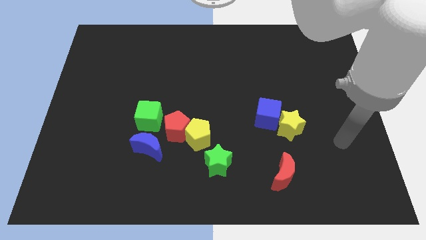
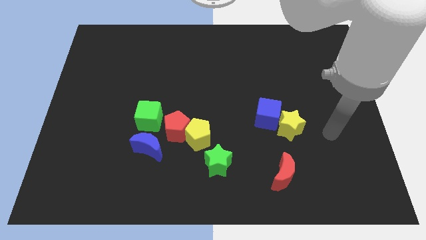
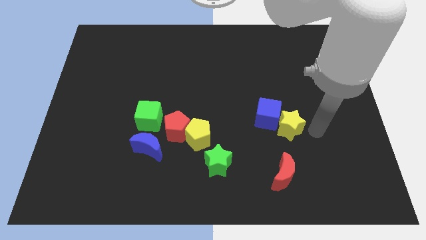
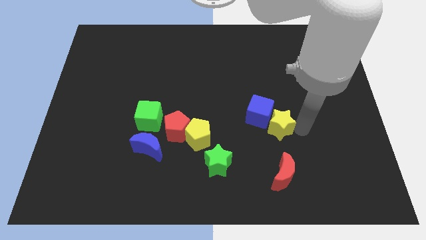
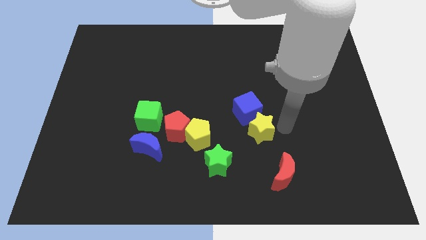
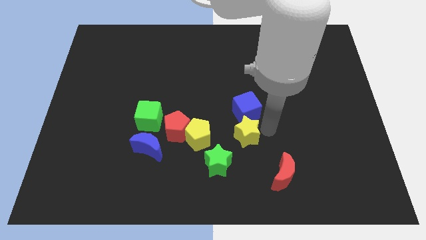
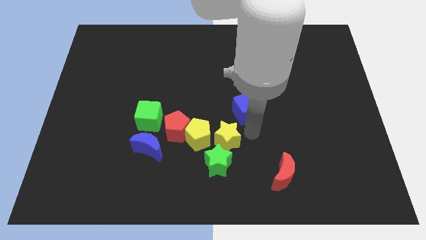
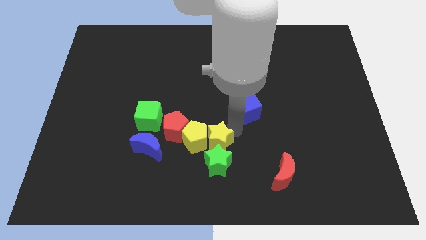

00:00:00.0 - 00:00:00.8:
separate the blue cube from the yellow star

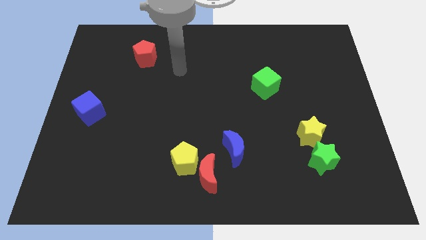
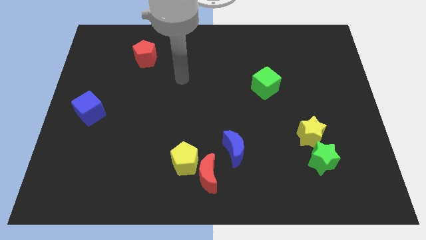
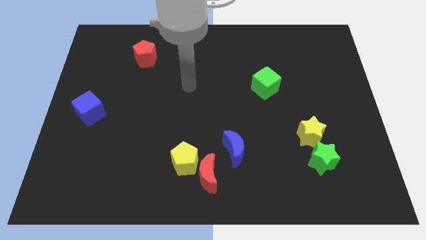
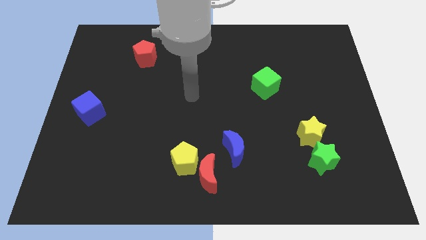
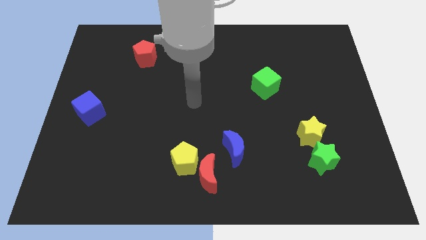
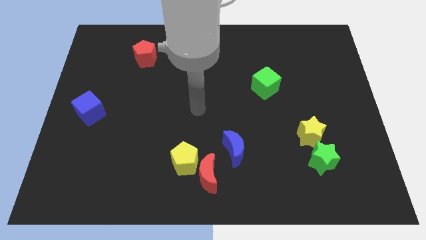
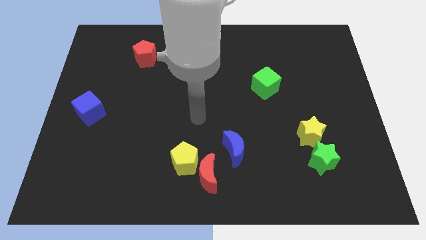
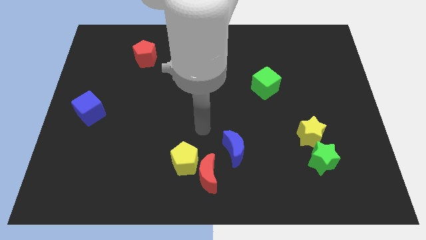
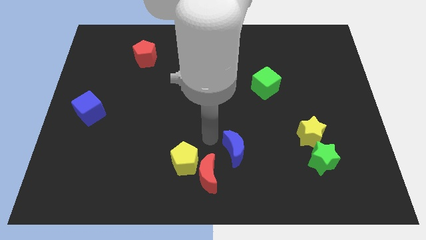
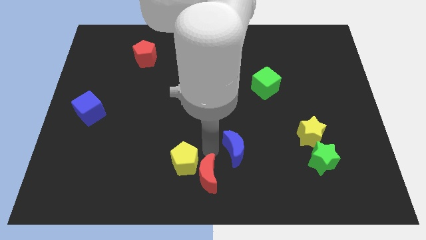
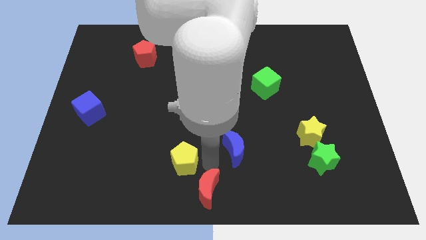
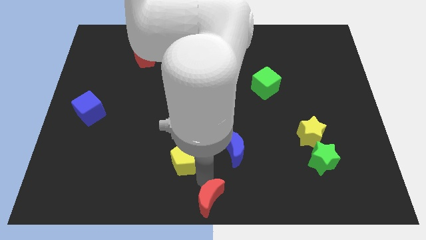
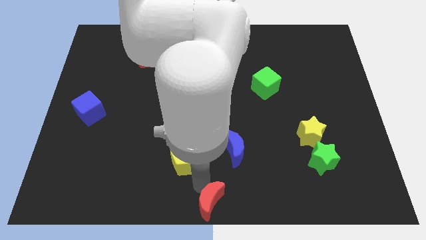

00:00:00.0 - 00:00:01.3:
separate the yellow pentagon from the red moon

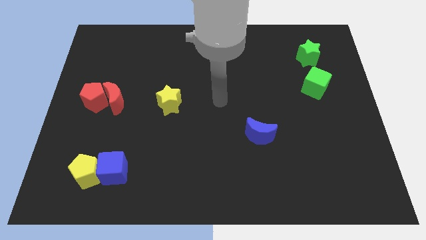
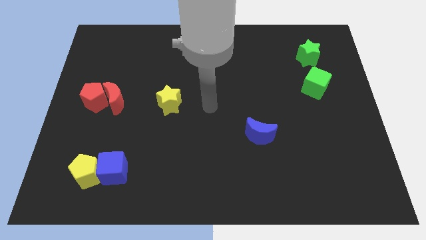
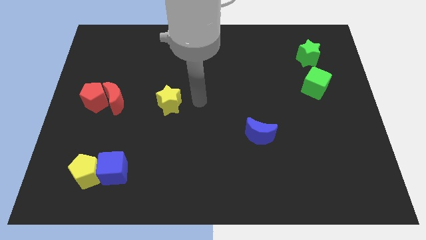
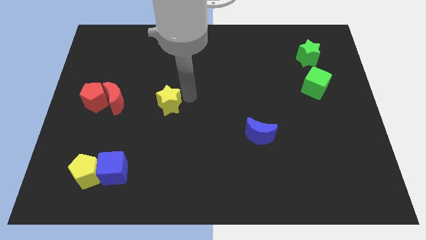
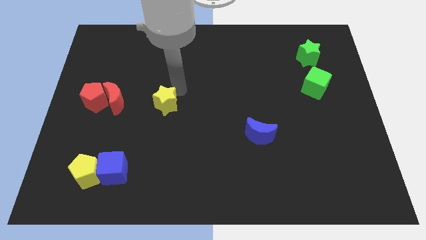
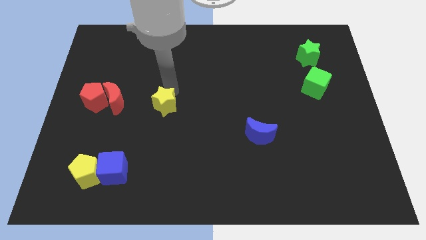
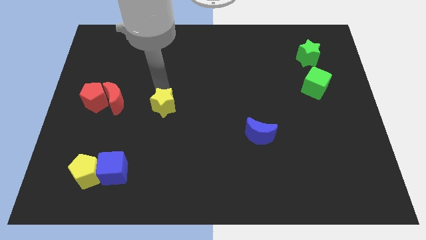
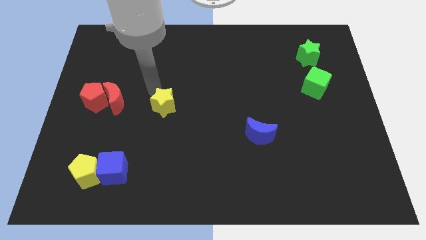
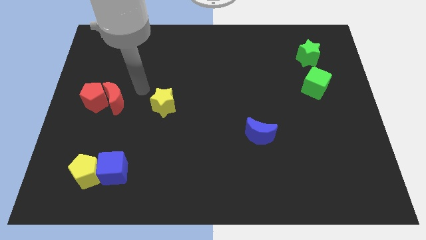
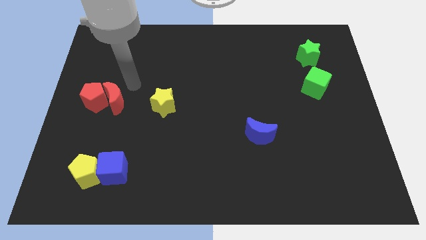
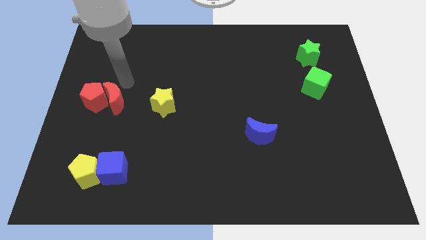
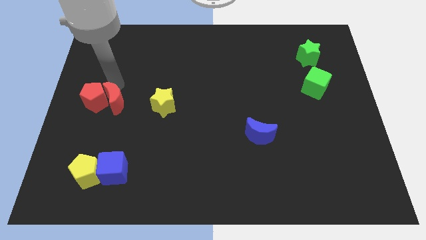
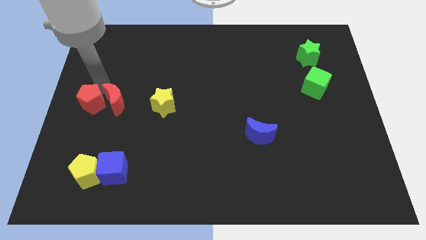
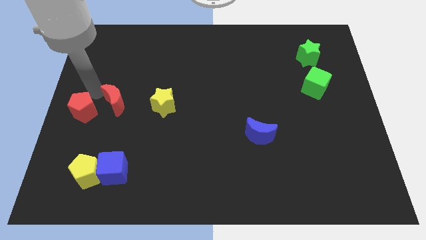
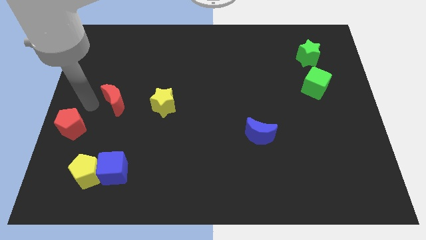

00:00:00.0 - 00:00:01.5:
pull the red moon apart from the red pentagon

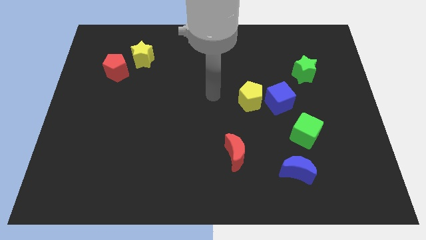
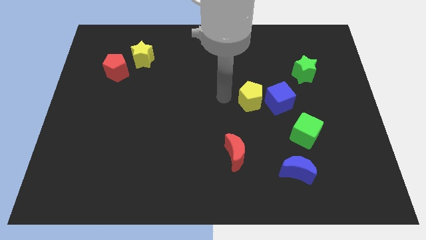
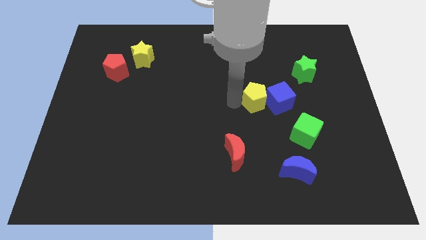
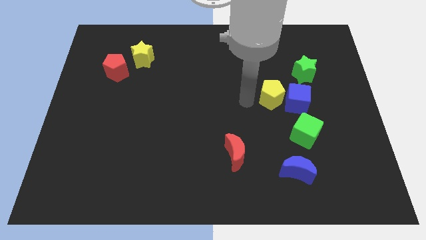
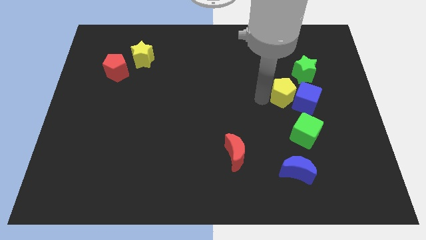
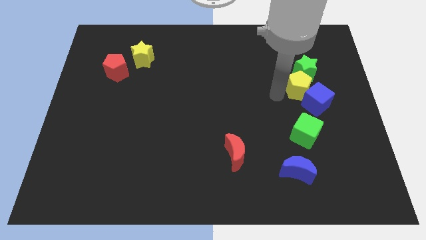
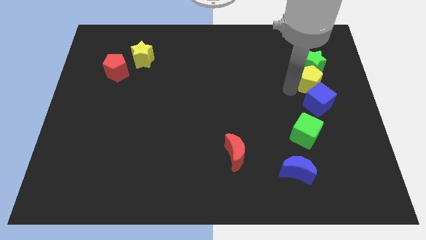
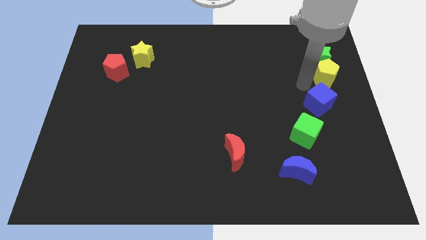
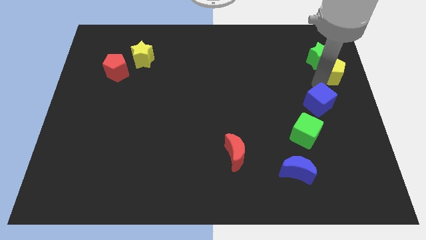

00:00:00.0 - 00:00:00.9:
pull the blue cube apart from the yellow pentagon

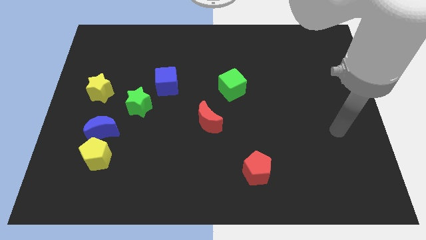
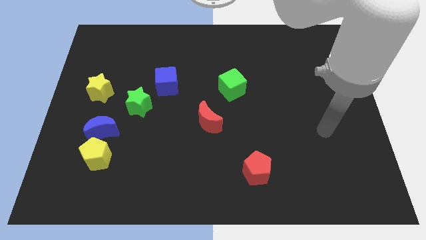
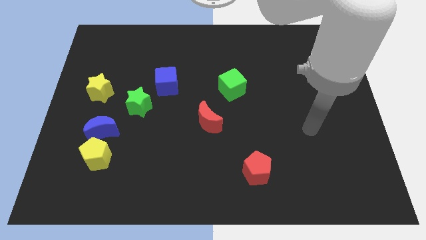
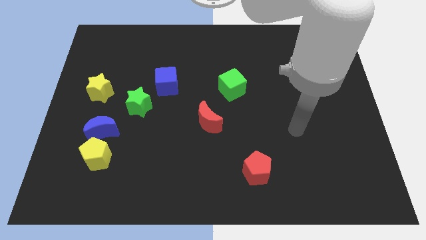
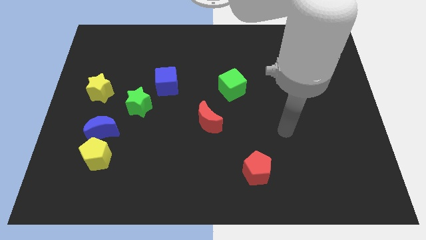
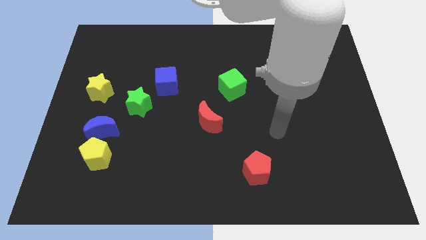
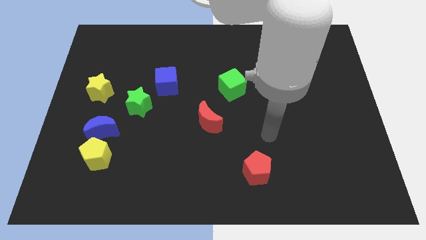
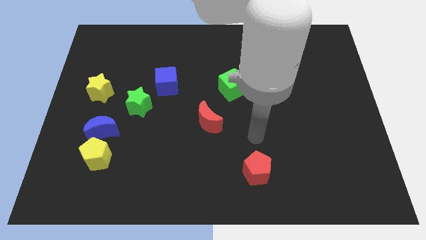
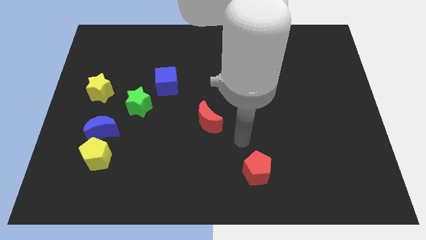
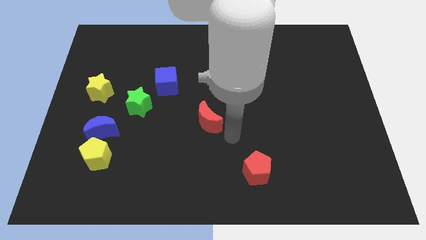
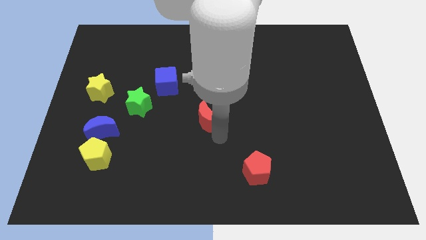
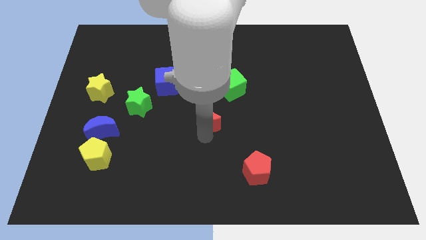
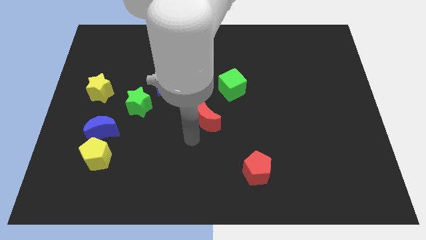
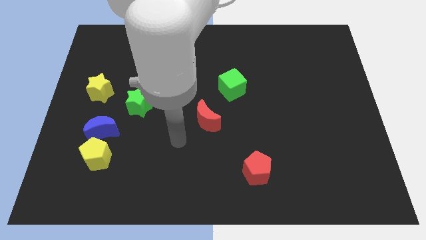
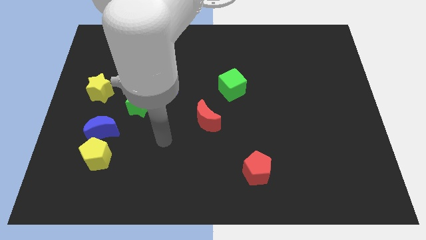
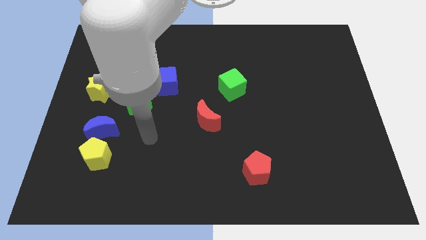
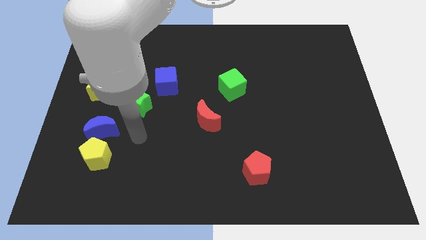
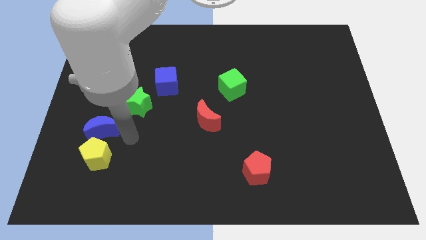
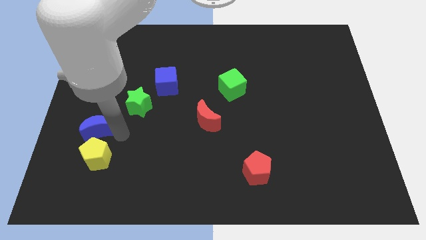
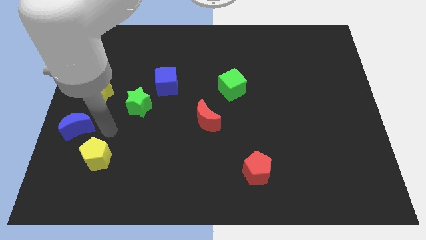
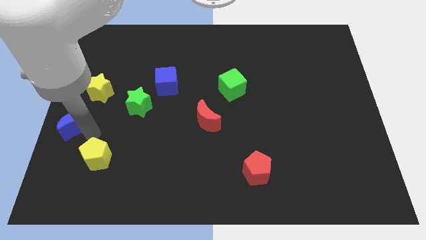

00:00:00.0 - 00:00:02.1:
separate the yellow pentagon from the blue moon

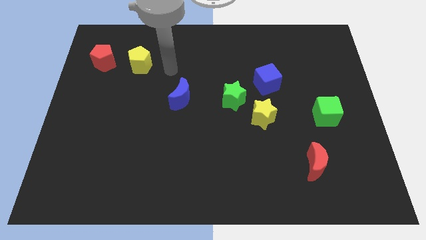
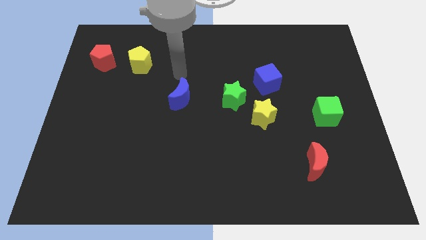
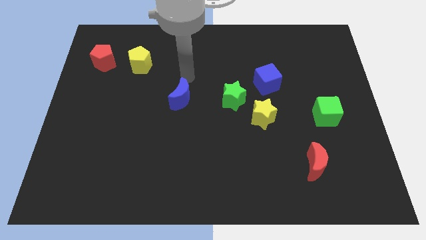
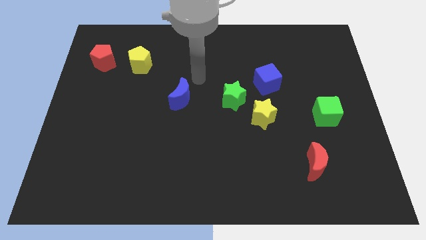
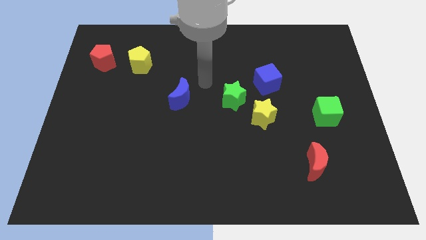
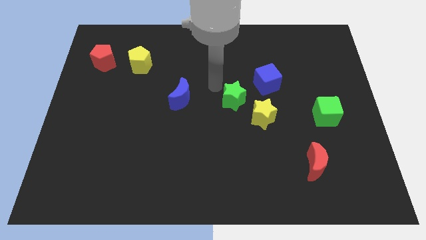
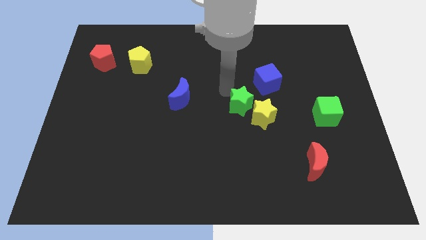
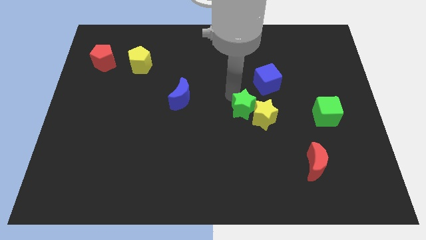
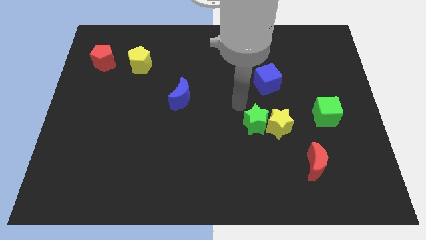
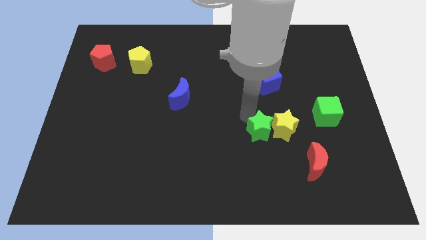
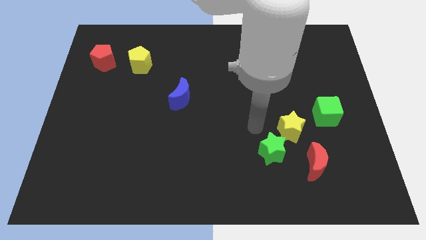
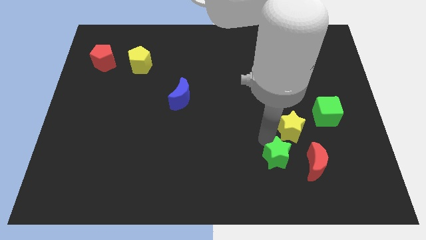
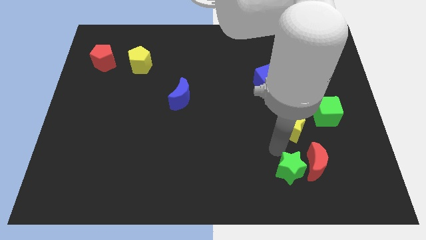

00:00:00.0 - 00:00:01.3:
pull the yellow star apart from the green star

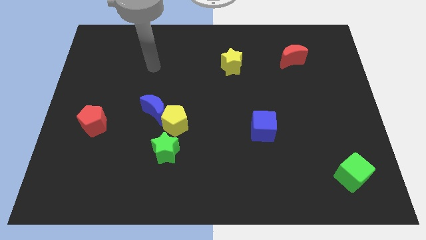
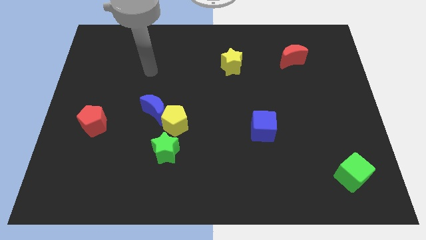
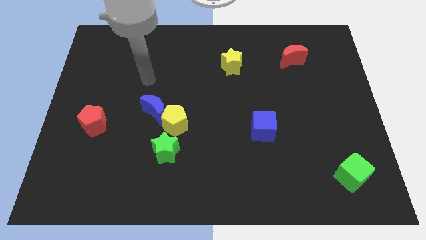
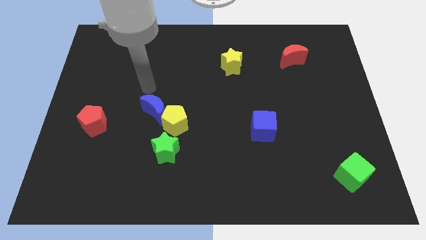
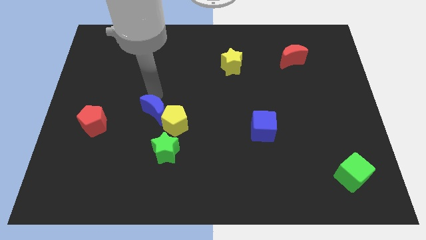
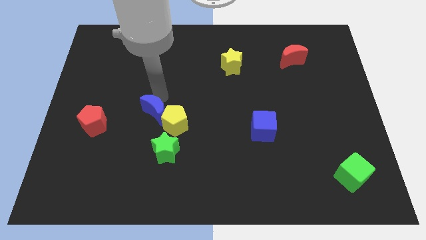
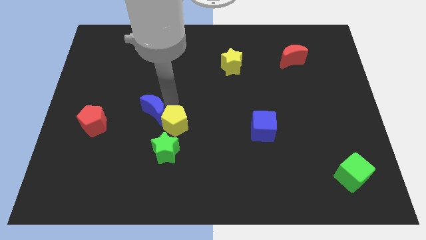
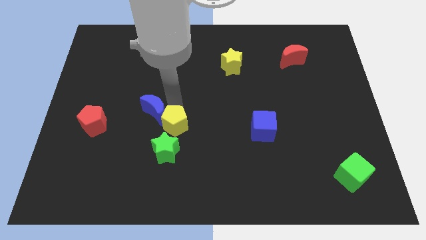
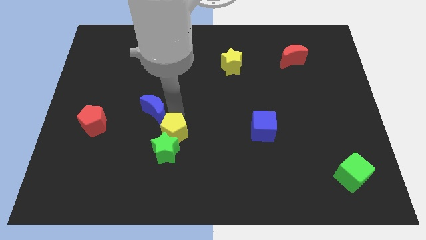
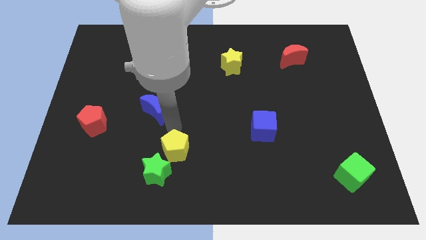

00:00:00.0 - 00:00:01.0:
pull the blue moon apart from the yellow pentagon

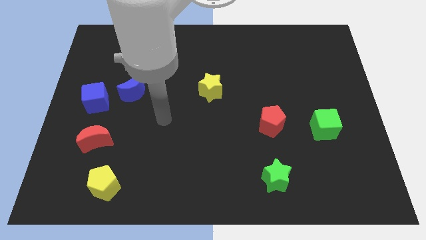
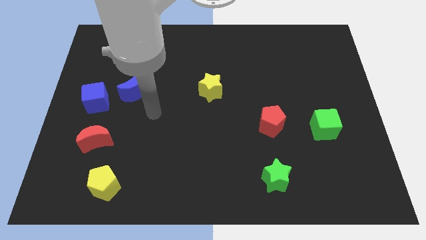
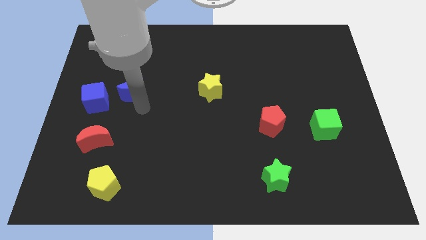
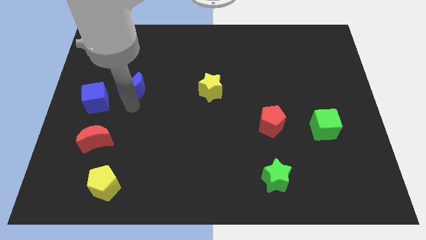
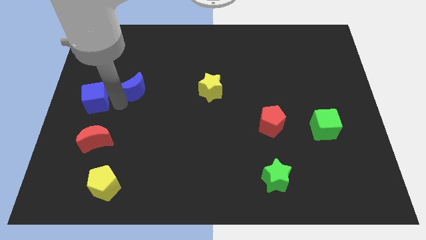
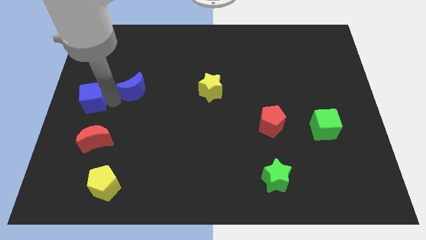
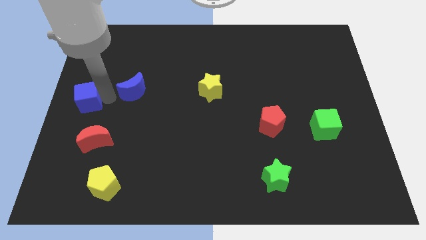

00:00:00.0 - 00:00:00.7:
pull the blue moon apart from the blue cube
